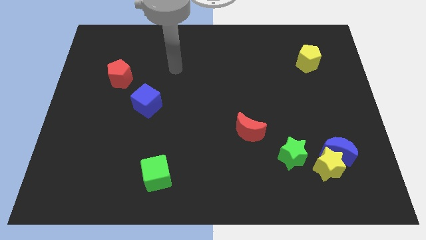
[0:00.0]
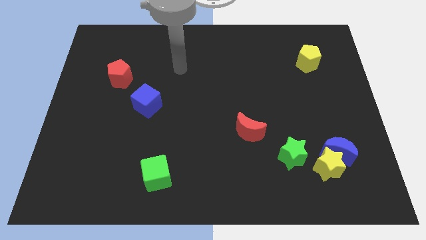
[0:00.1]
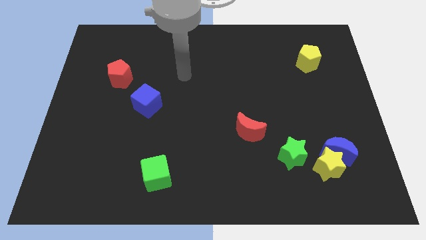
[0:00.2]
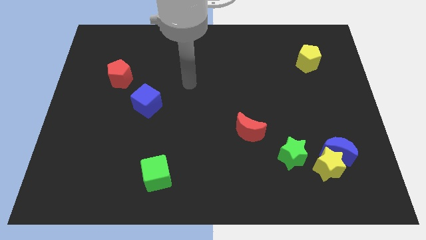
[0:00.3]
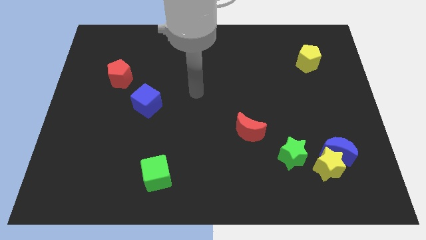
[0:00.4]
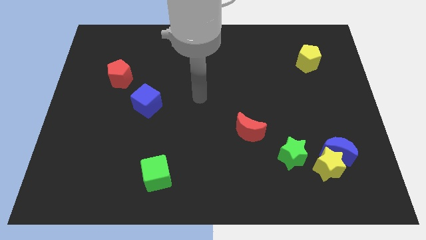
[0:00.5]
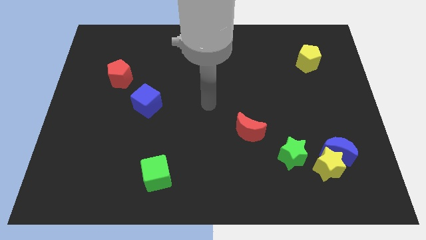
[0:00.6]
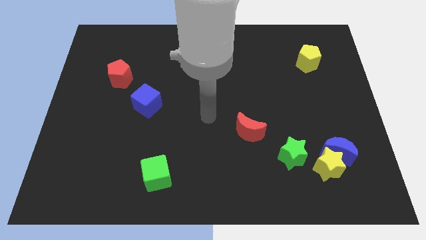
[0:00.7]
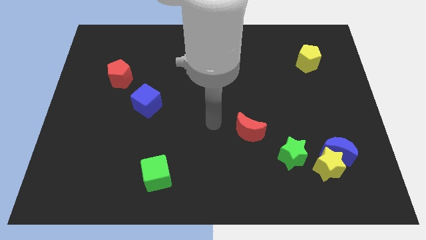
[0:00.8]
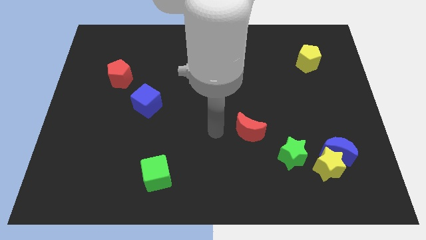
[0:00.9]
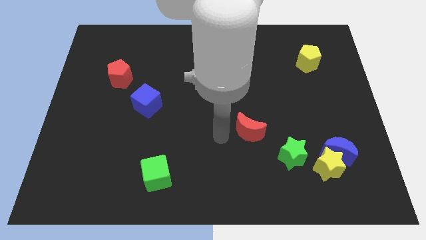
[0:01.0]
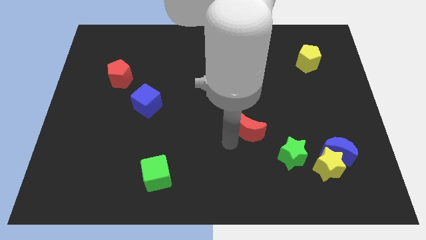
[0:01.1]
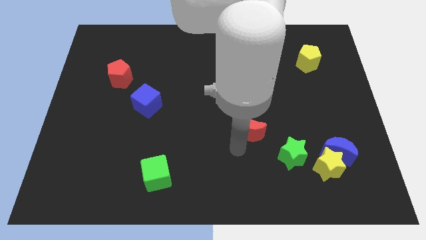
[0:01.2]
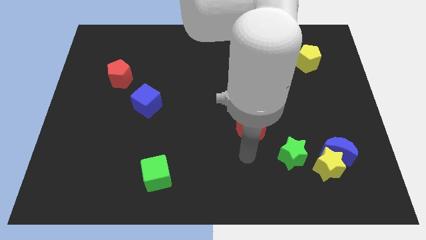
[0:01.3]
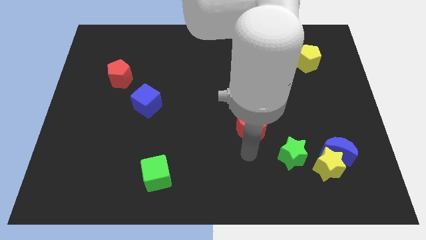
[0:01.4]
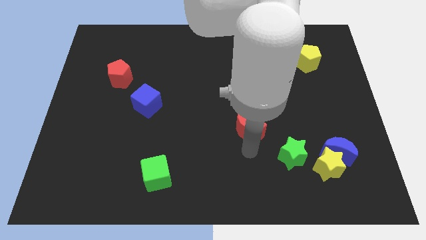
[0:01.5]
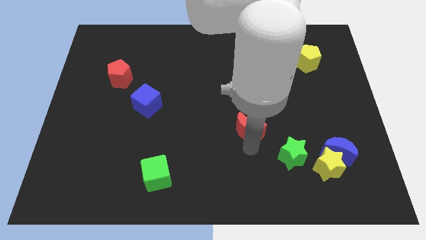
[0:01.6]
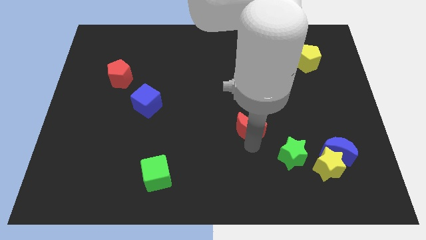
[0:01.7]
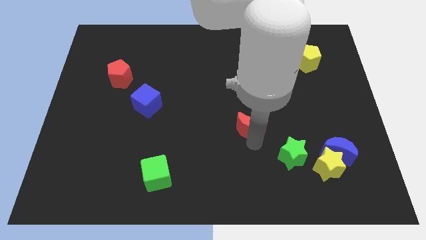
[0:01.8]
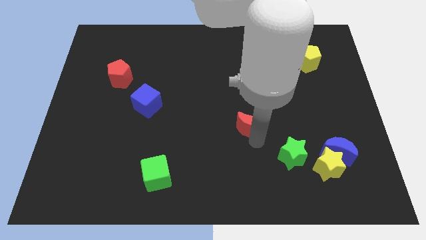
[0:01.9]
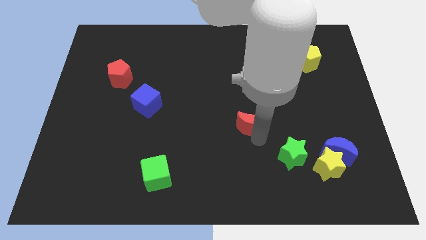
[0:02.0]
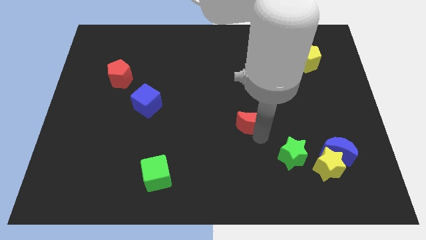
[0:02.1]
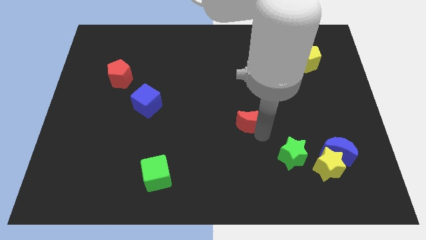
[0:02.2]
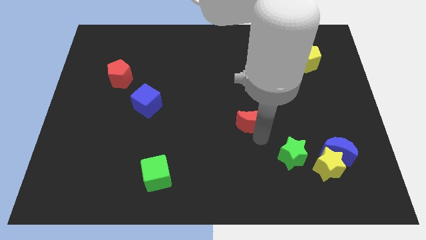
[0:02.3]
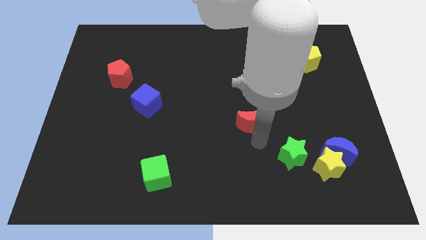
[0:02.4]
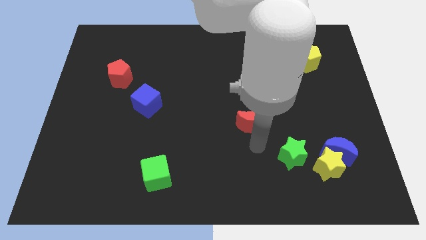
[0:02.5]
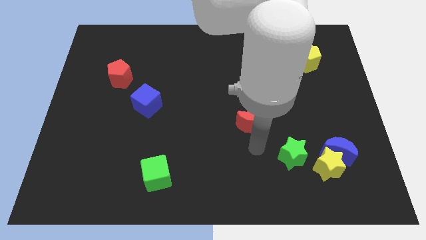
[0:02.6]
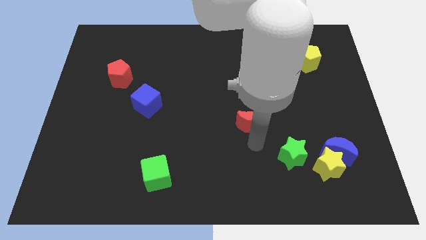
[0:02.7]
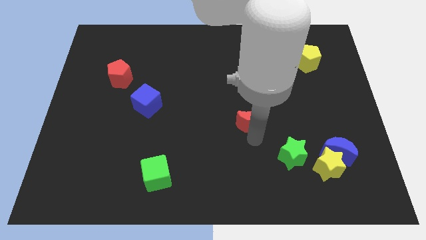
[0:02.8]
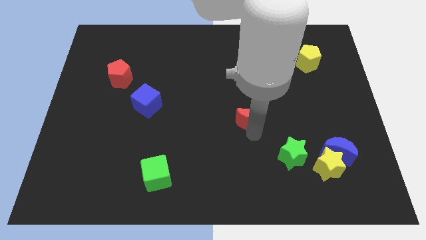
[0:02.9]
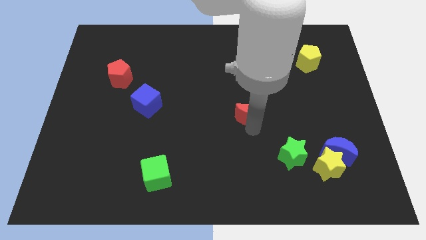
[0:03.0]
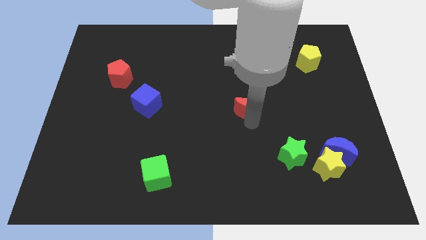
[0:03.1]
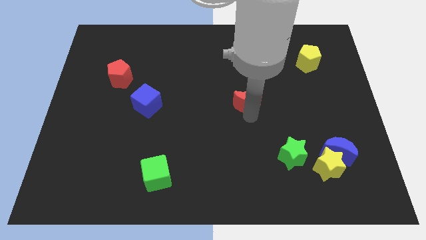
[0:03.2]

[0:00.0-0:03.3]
move the red moon up somewhat

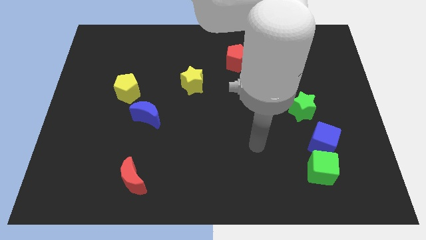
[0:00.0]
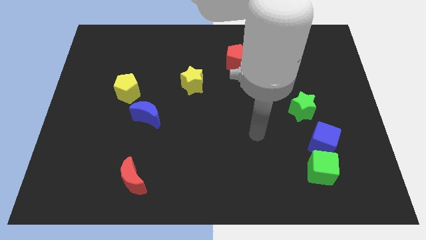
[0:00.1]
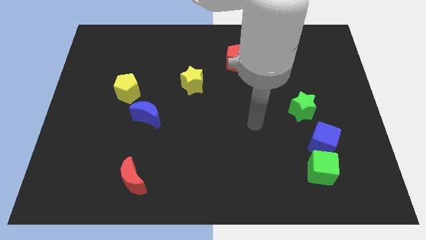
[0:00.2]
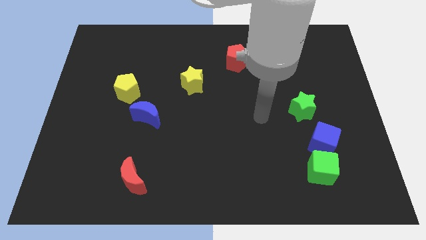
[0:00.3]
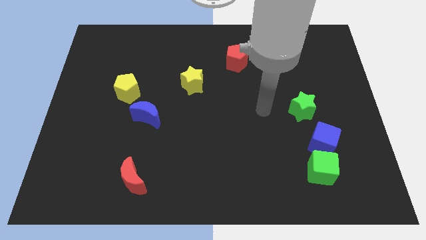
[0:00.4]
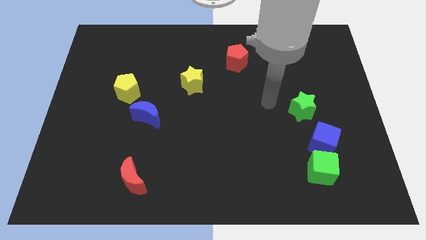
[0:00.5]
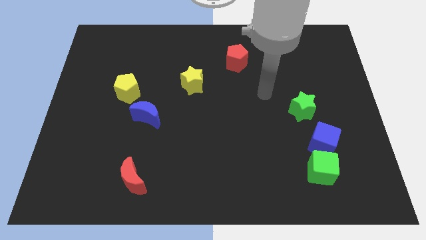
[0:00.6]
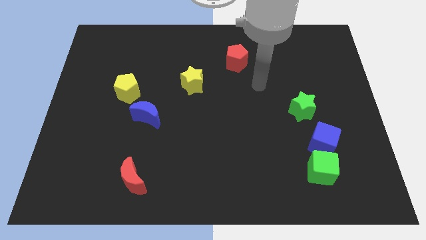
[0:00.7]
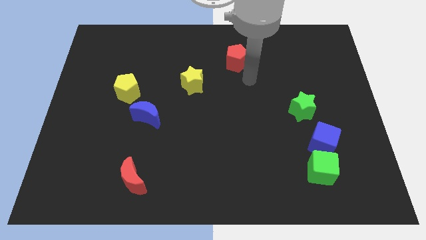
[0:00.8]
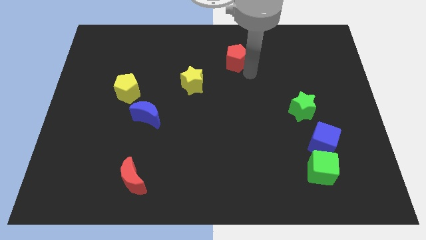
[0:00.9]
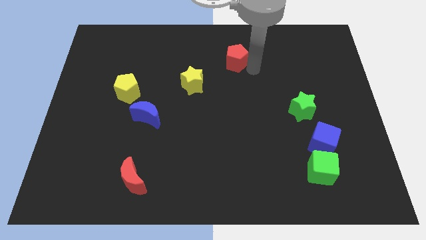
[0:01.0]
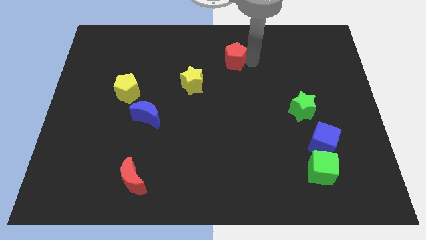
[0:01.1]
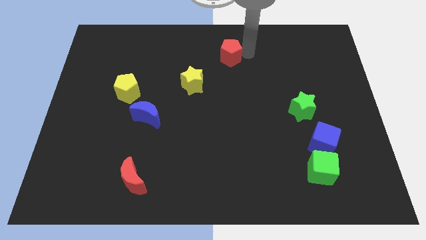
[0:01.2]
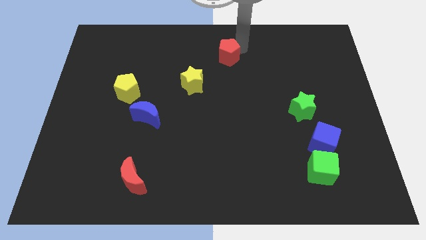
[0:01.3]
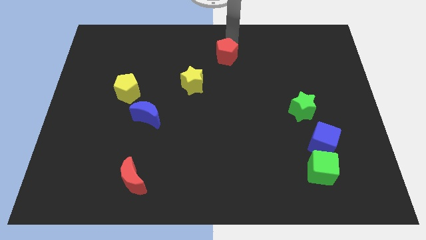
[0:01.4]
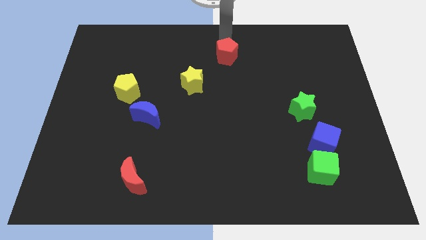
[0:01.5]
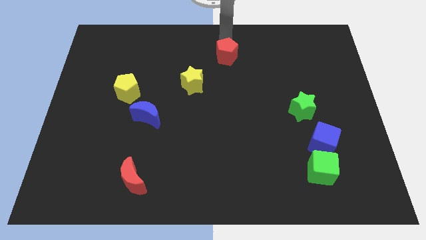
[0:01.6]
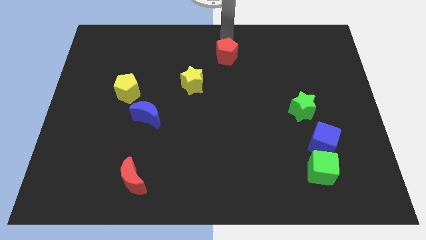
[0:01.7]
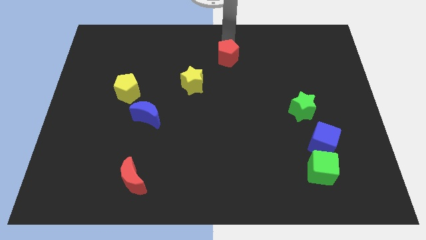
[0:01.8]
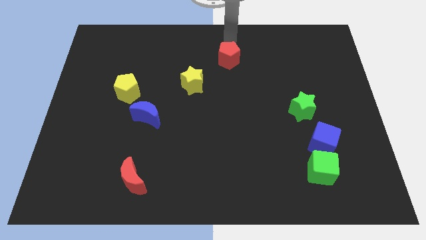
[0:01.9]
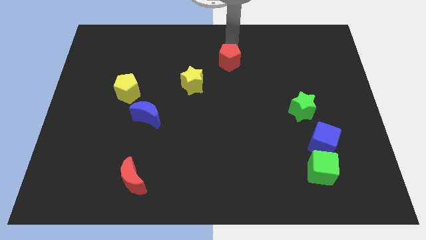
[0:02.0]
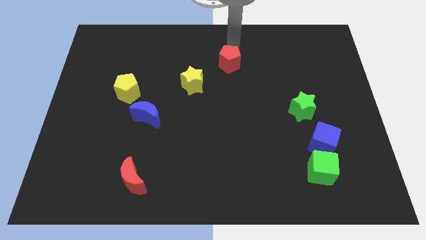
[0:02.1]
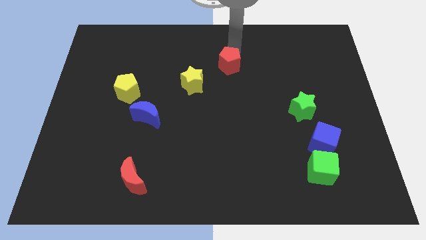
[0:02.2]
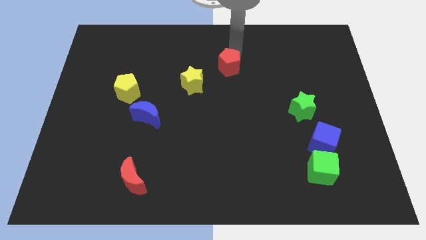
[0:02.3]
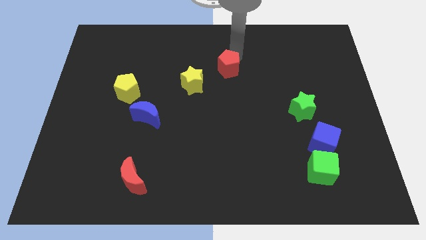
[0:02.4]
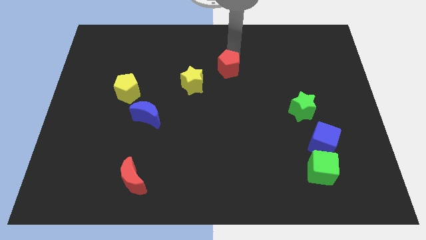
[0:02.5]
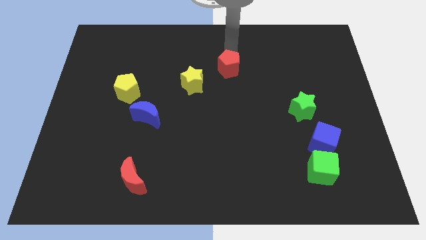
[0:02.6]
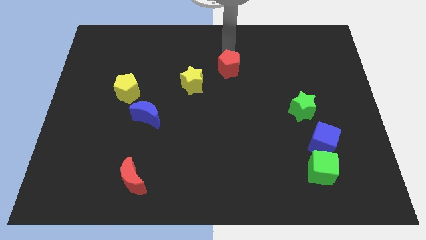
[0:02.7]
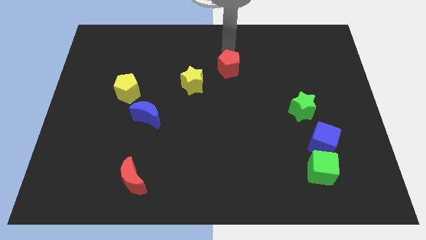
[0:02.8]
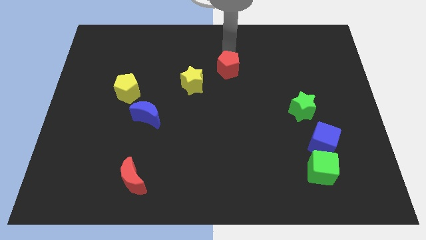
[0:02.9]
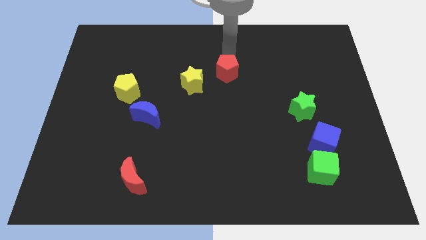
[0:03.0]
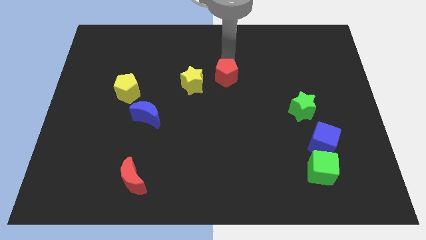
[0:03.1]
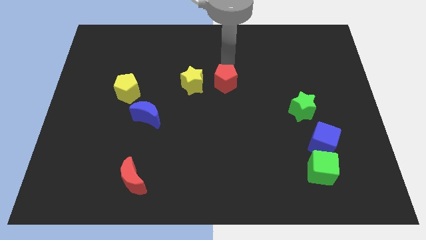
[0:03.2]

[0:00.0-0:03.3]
push the red pentagon downwards slightly

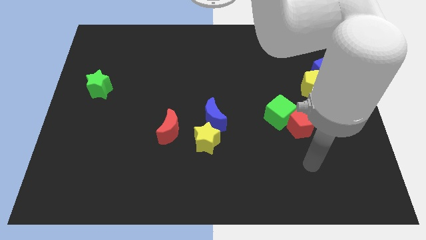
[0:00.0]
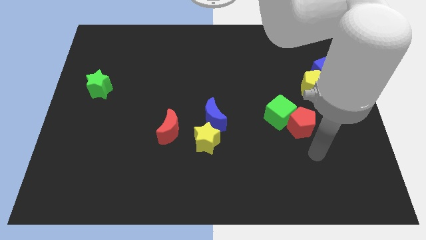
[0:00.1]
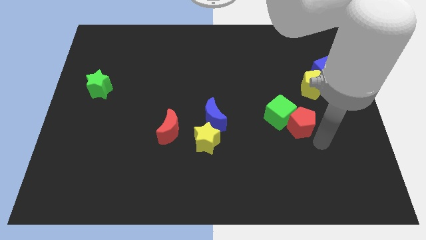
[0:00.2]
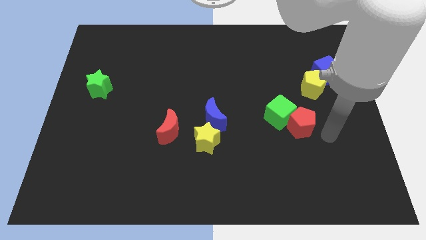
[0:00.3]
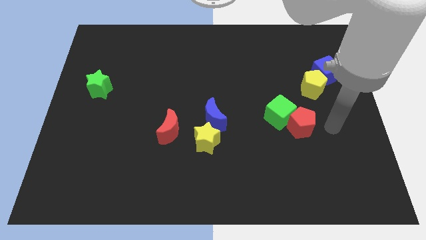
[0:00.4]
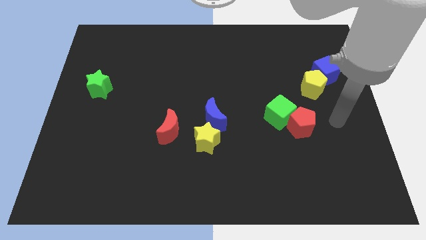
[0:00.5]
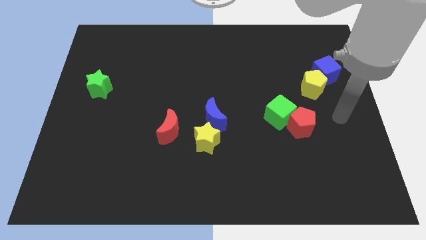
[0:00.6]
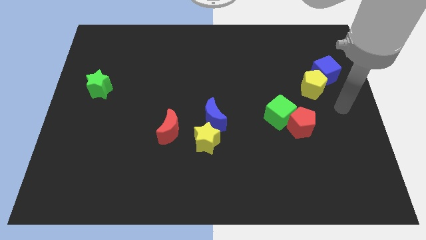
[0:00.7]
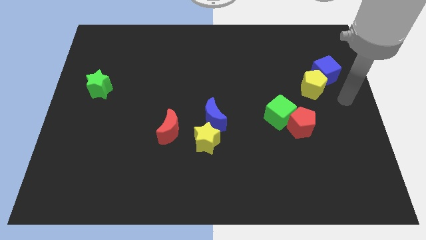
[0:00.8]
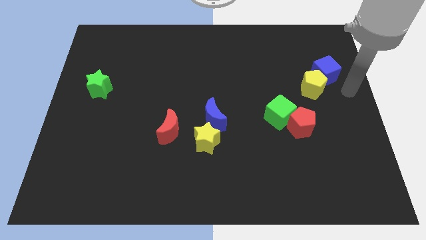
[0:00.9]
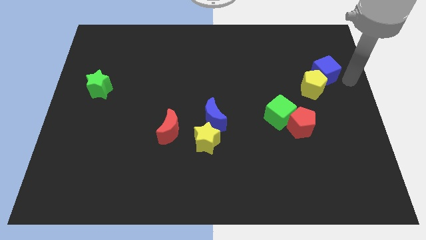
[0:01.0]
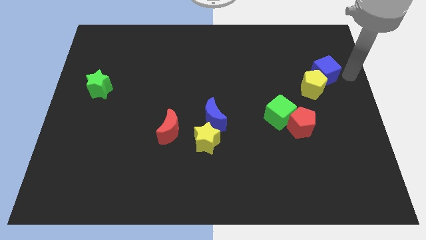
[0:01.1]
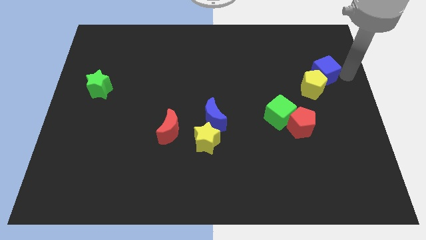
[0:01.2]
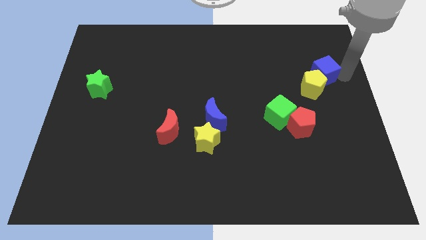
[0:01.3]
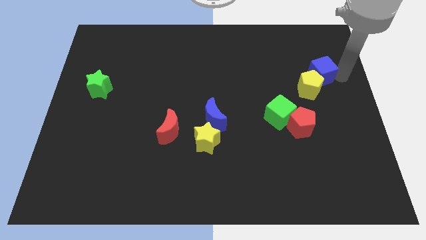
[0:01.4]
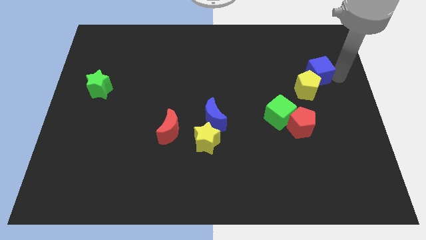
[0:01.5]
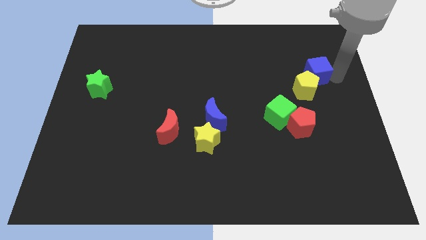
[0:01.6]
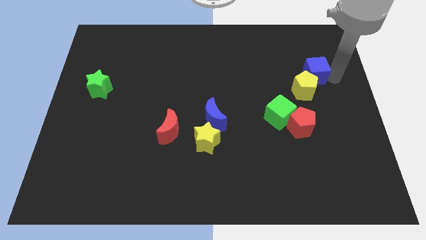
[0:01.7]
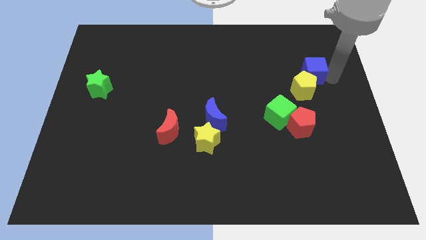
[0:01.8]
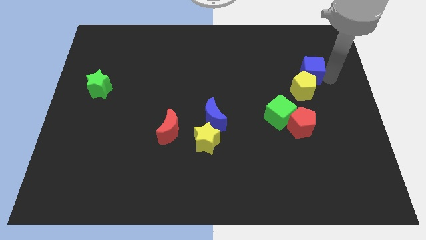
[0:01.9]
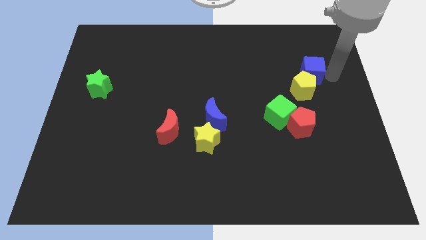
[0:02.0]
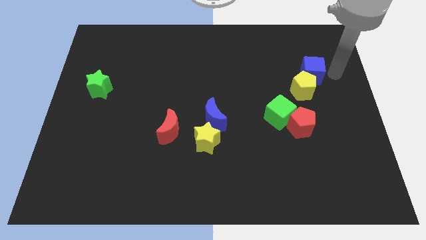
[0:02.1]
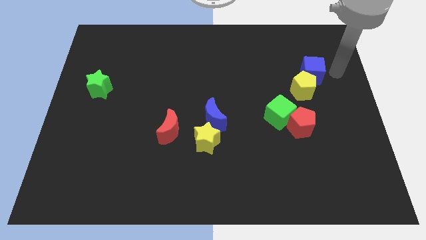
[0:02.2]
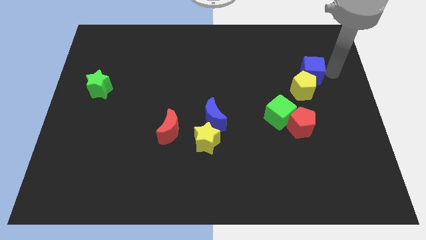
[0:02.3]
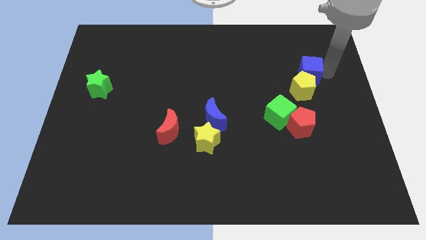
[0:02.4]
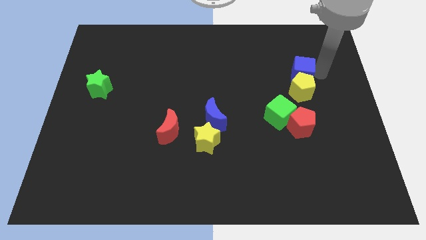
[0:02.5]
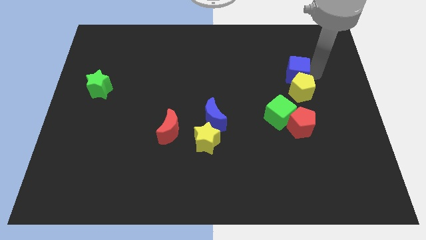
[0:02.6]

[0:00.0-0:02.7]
slide the blue cube somewhat left
